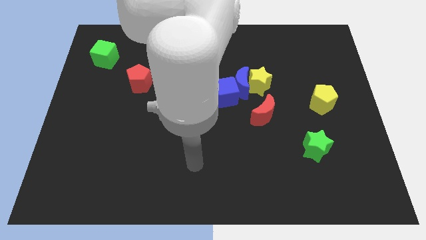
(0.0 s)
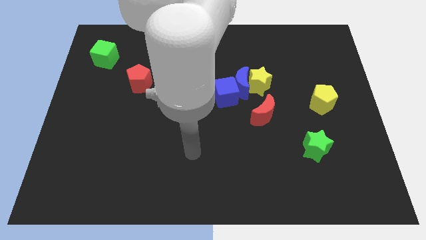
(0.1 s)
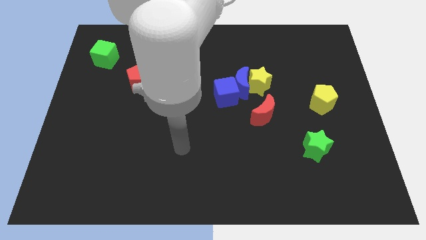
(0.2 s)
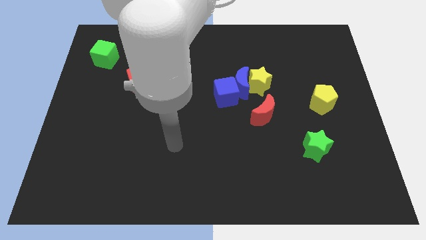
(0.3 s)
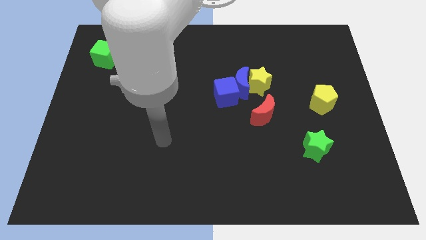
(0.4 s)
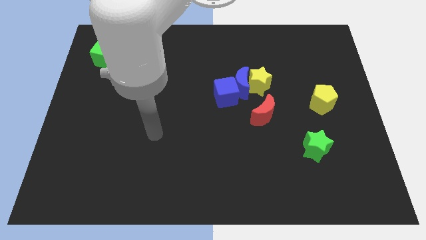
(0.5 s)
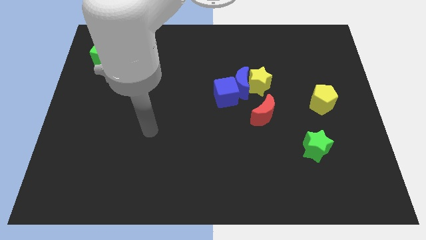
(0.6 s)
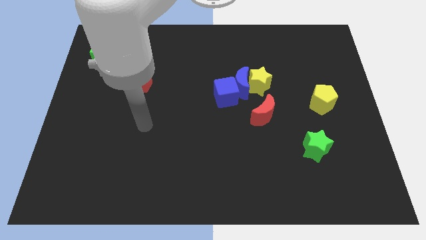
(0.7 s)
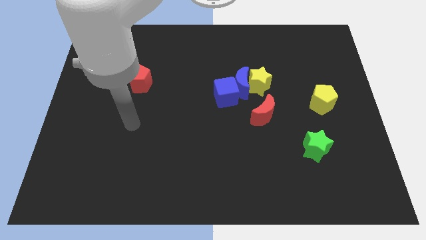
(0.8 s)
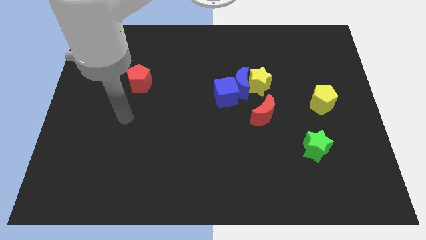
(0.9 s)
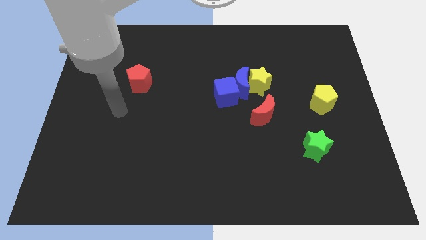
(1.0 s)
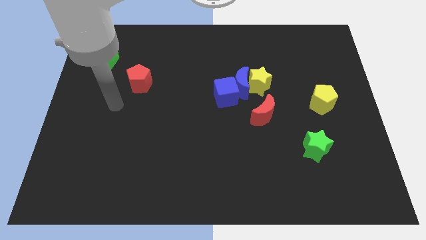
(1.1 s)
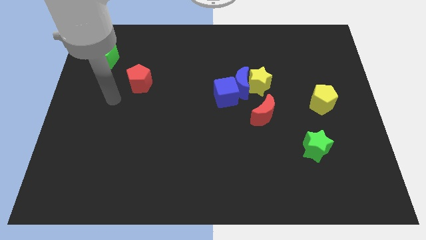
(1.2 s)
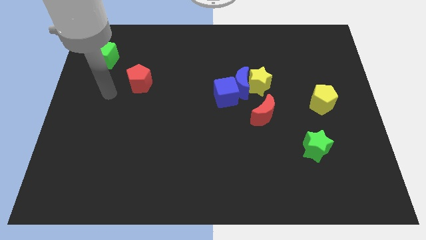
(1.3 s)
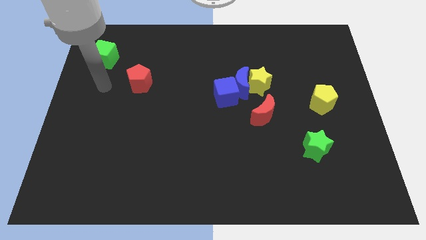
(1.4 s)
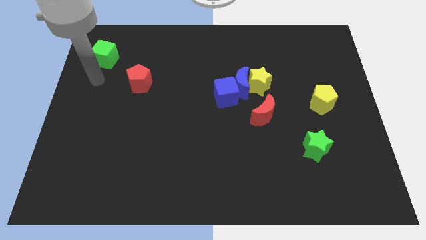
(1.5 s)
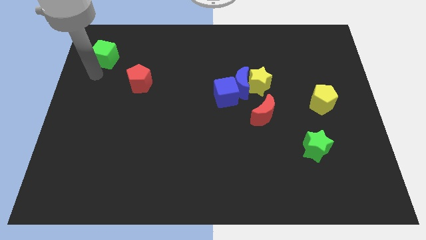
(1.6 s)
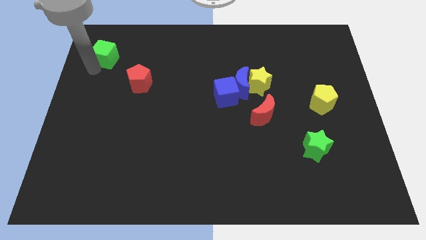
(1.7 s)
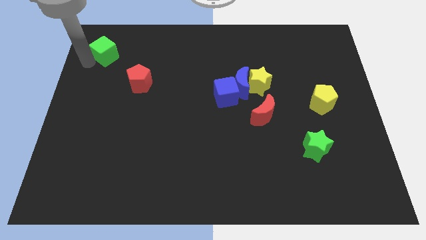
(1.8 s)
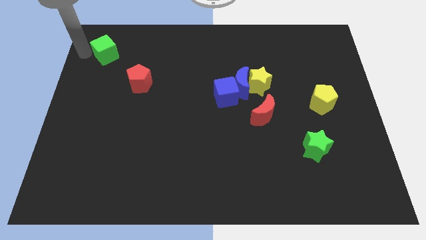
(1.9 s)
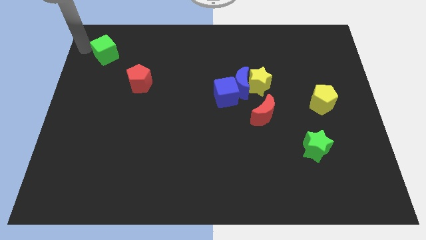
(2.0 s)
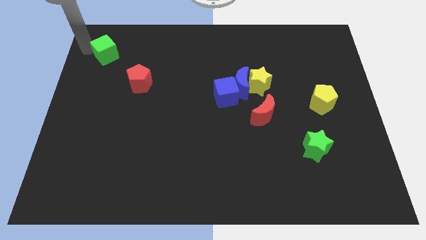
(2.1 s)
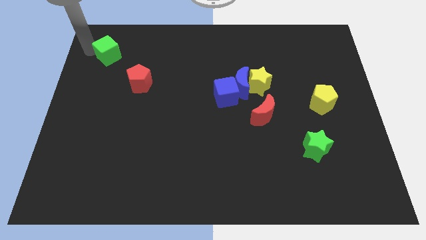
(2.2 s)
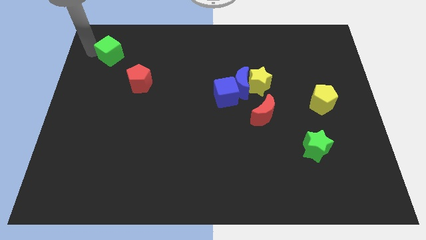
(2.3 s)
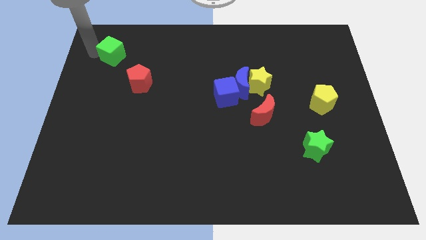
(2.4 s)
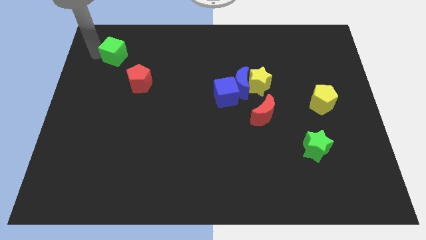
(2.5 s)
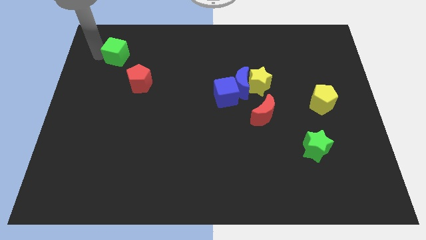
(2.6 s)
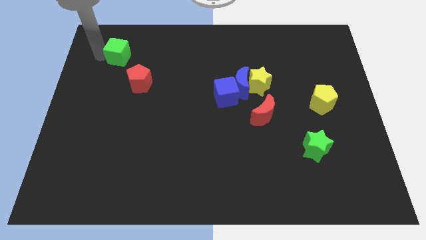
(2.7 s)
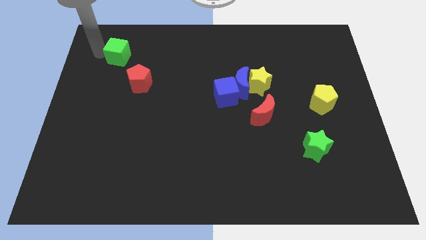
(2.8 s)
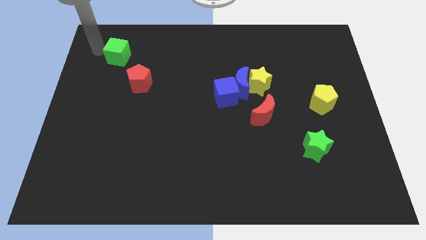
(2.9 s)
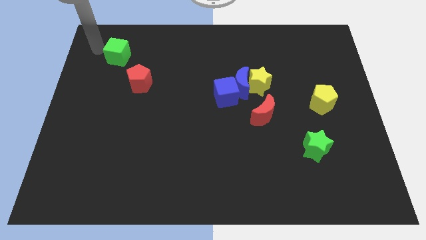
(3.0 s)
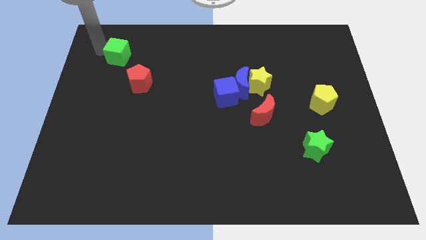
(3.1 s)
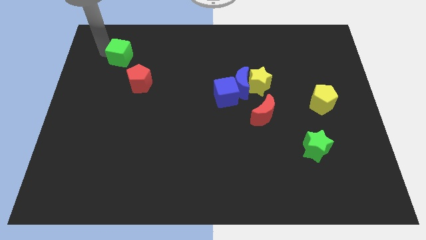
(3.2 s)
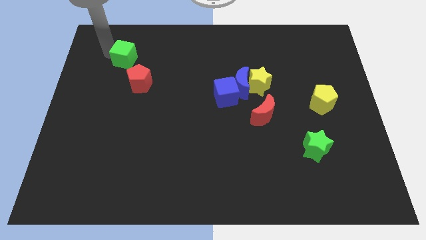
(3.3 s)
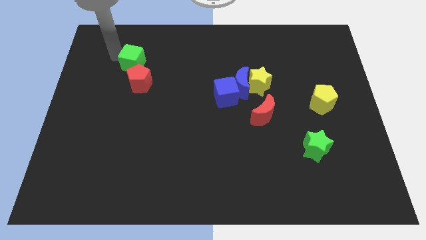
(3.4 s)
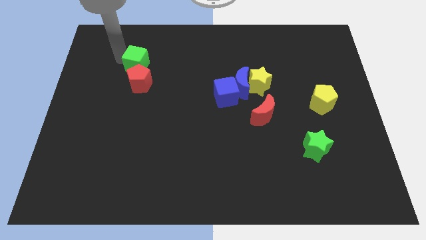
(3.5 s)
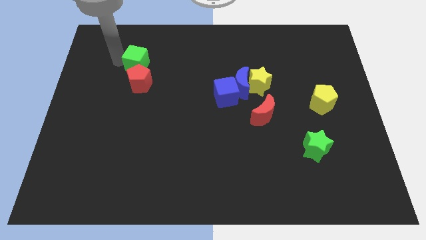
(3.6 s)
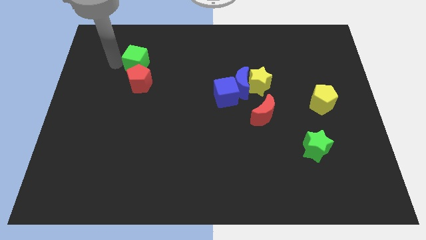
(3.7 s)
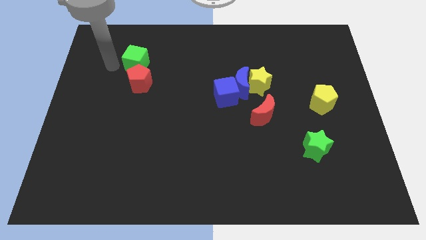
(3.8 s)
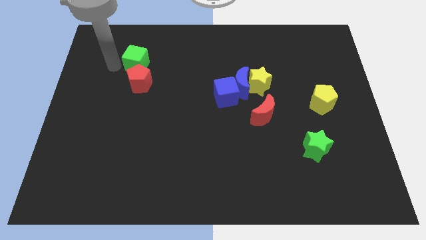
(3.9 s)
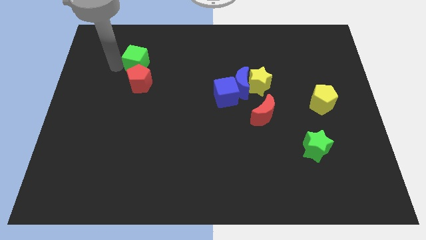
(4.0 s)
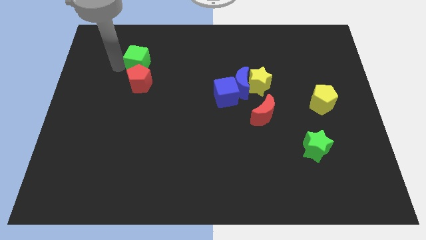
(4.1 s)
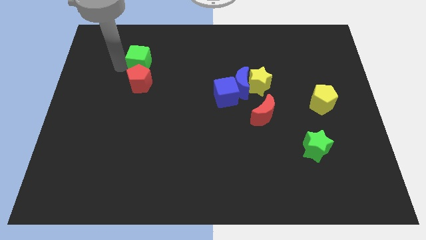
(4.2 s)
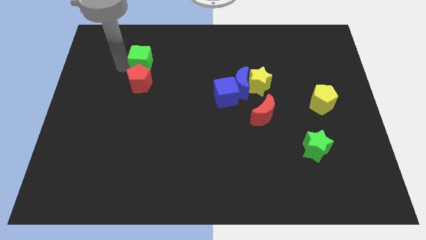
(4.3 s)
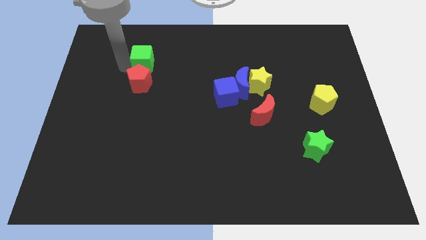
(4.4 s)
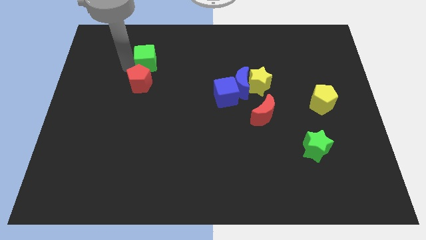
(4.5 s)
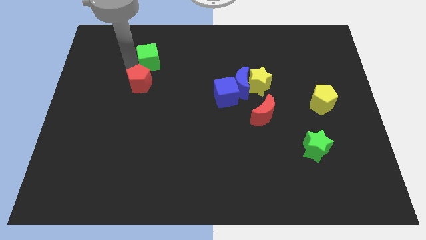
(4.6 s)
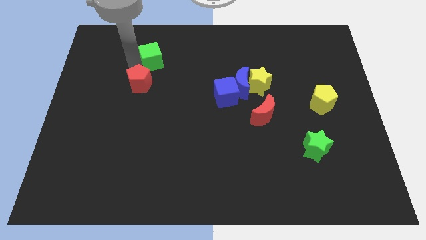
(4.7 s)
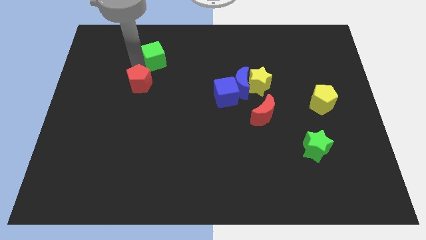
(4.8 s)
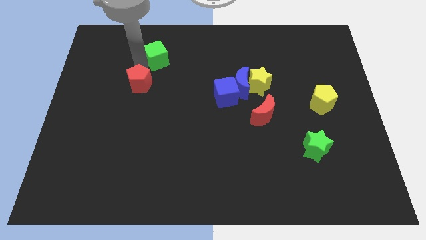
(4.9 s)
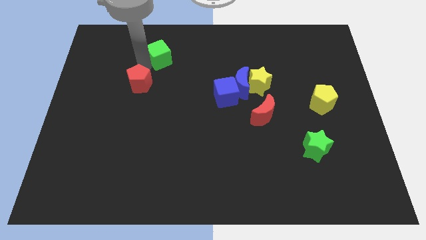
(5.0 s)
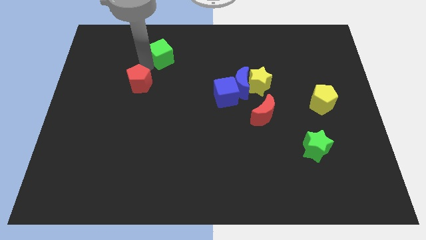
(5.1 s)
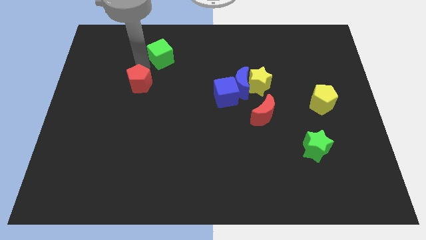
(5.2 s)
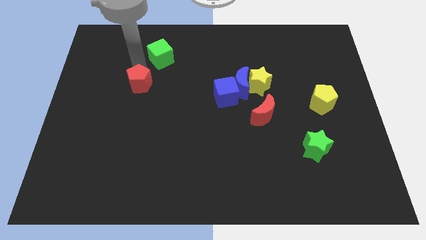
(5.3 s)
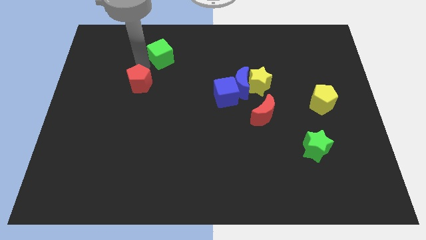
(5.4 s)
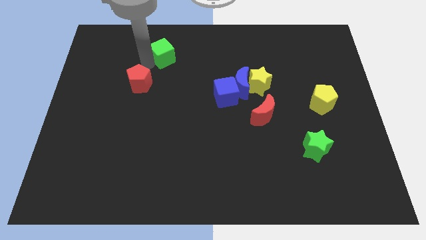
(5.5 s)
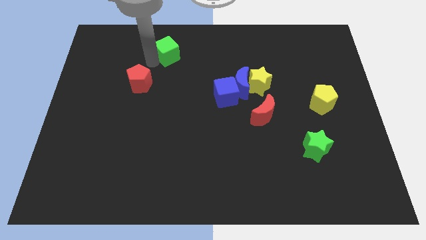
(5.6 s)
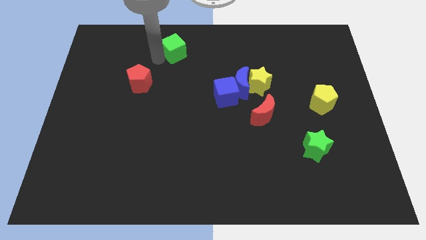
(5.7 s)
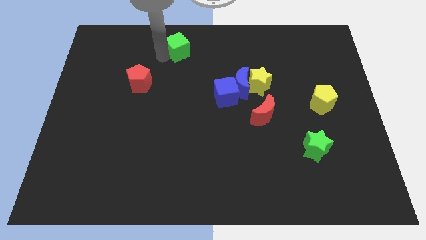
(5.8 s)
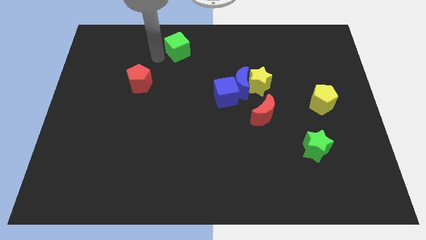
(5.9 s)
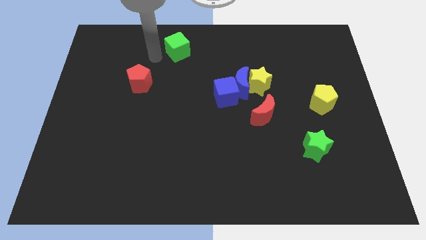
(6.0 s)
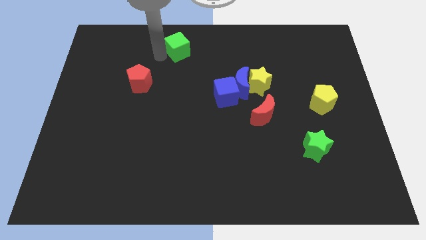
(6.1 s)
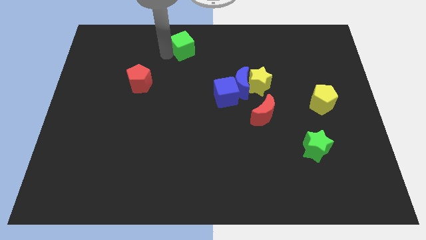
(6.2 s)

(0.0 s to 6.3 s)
move the green cube to the towards your base
